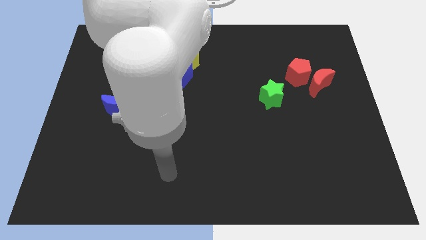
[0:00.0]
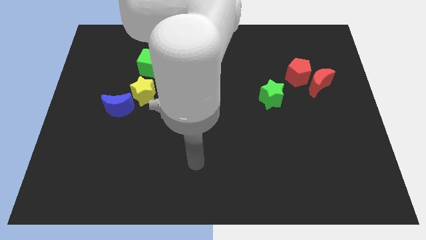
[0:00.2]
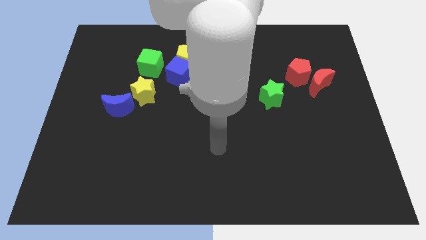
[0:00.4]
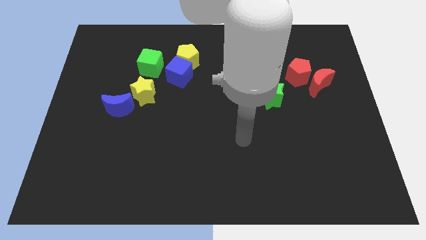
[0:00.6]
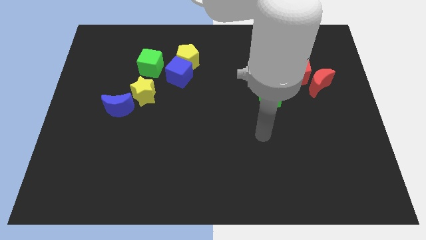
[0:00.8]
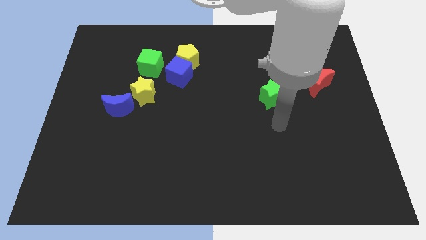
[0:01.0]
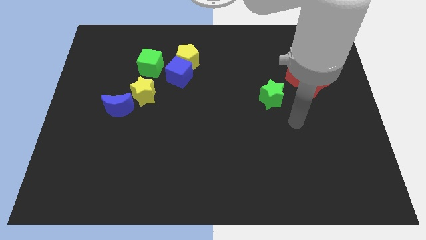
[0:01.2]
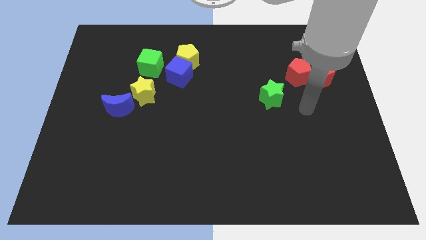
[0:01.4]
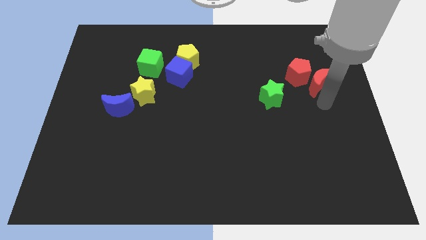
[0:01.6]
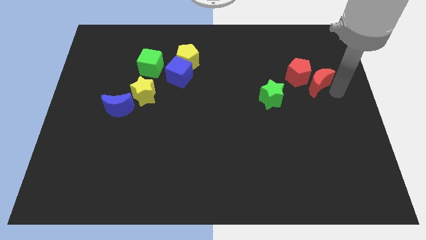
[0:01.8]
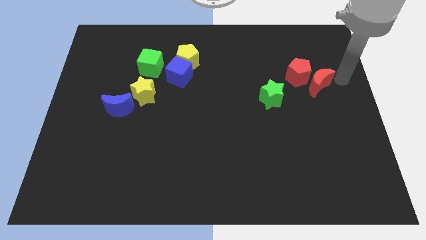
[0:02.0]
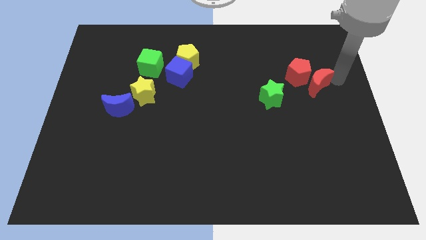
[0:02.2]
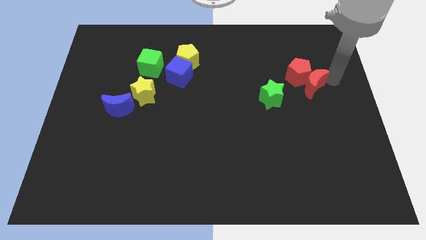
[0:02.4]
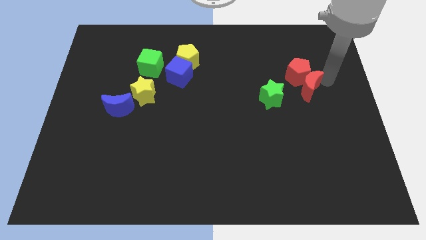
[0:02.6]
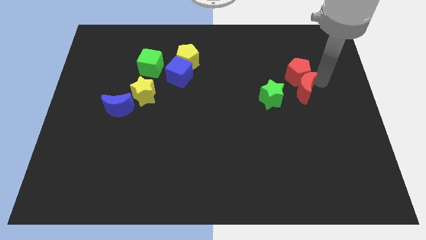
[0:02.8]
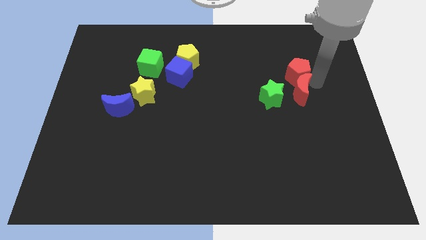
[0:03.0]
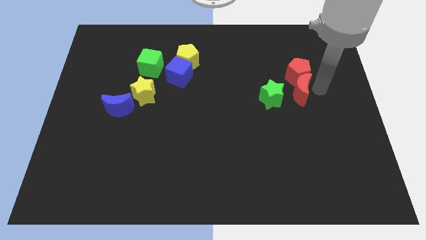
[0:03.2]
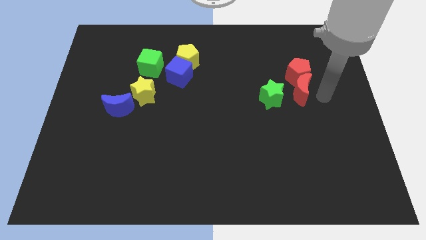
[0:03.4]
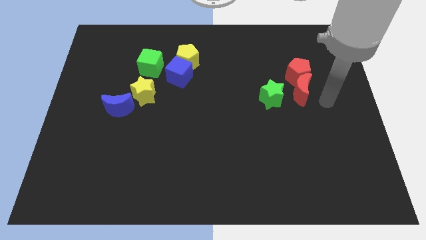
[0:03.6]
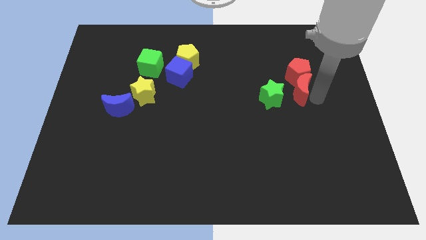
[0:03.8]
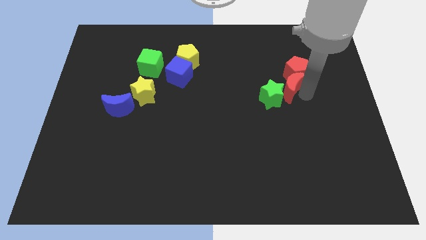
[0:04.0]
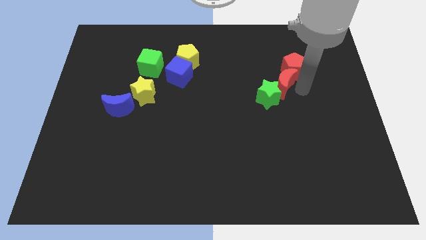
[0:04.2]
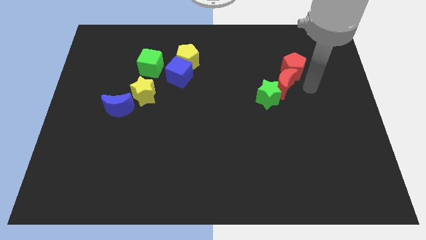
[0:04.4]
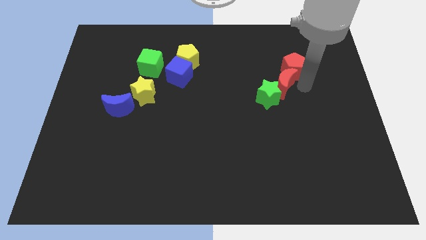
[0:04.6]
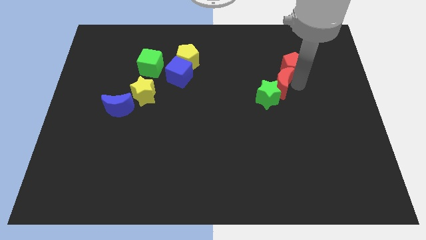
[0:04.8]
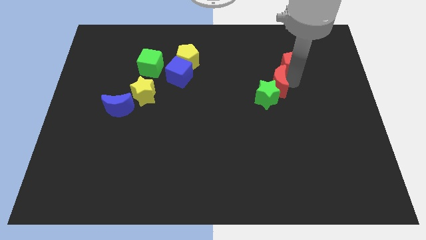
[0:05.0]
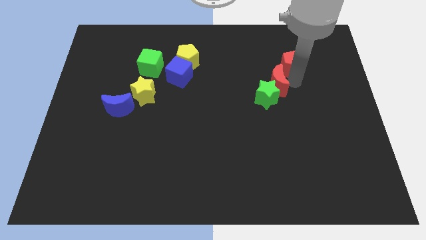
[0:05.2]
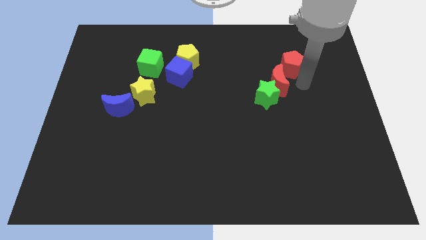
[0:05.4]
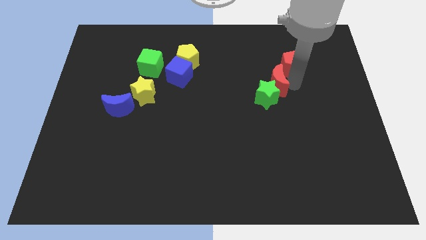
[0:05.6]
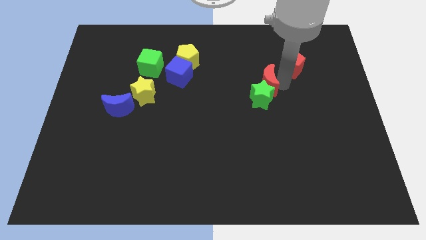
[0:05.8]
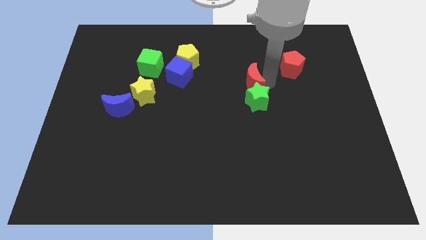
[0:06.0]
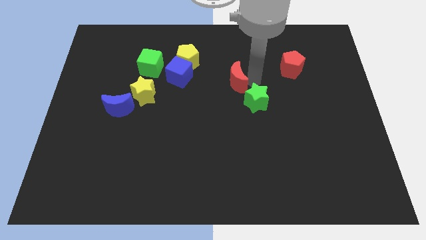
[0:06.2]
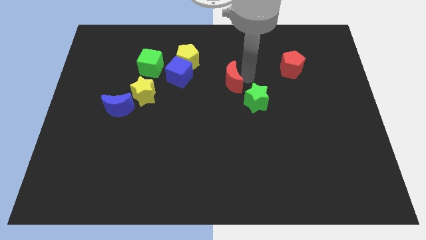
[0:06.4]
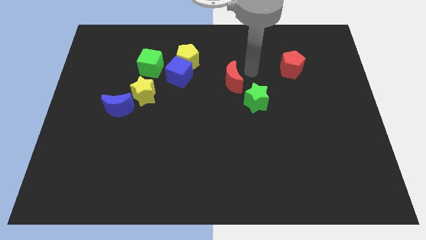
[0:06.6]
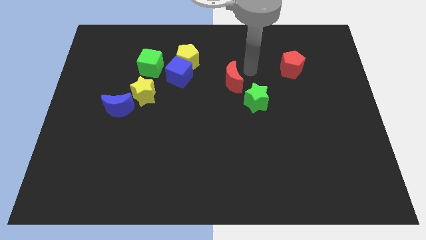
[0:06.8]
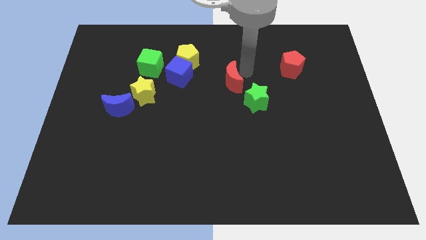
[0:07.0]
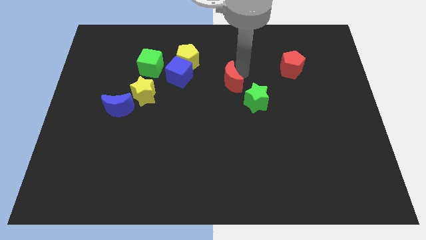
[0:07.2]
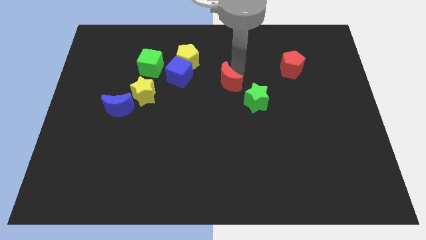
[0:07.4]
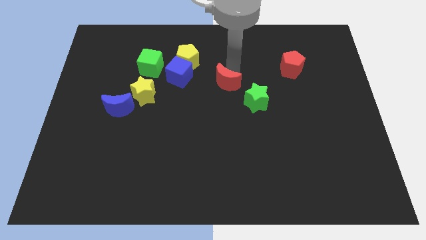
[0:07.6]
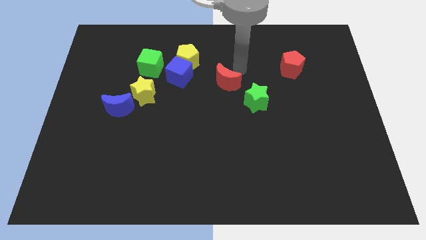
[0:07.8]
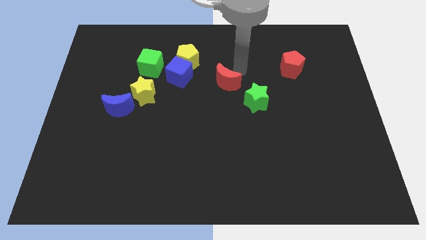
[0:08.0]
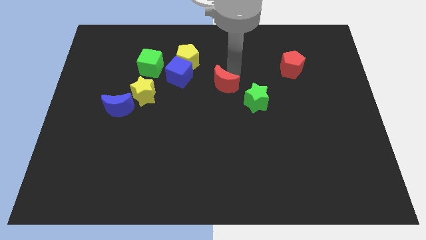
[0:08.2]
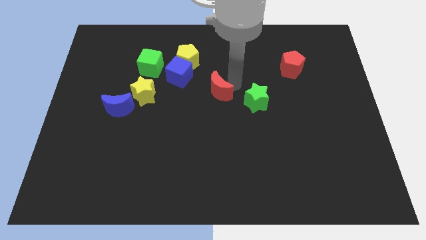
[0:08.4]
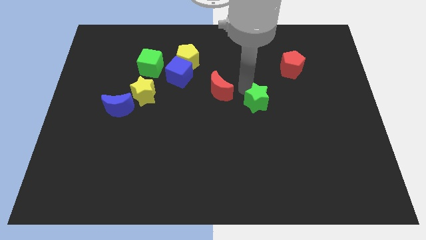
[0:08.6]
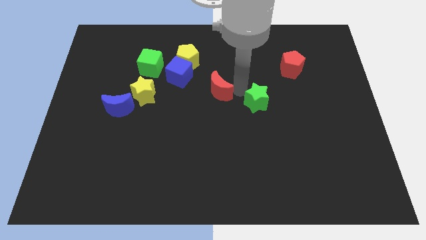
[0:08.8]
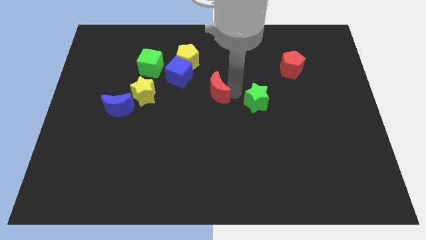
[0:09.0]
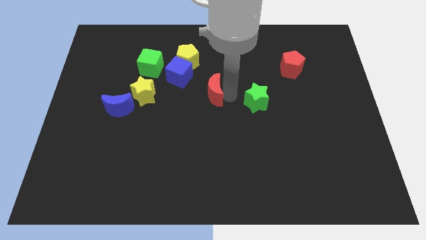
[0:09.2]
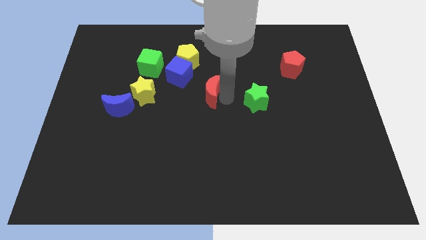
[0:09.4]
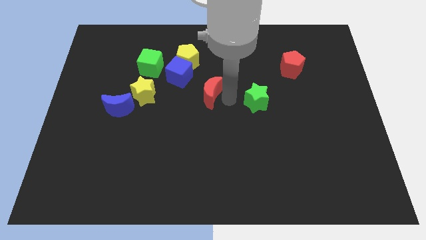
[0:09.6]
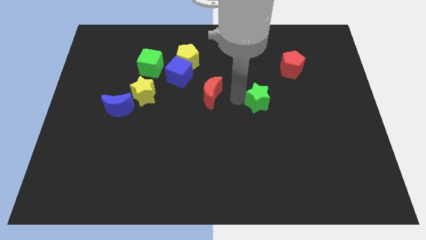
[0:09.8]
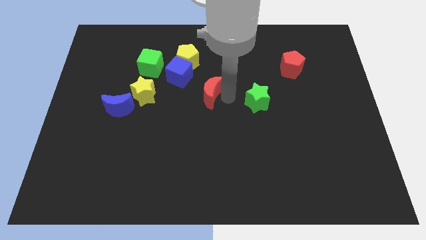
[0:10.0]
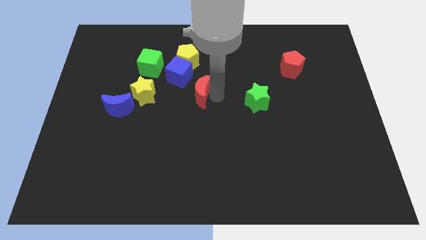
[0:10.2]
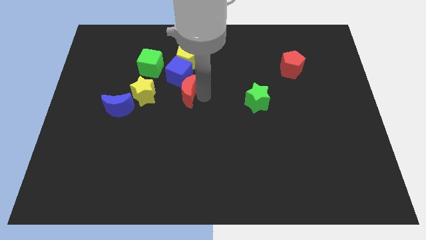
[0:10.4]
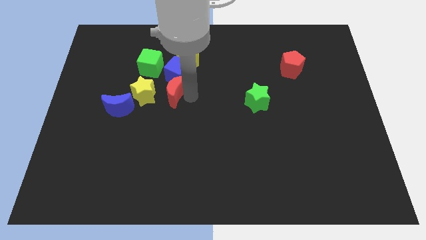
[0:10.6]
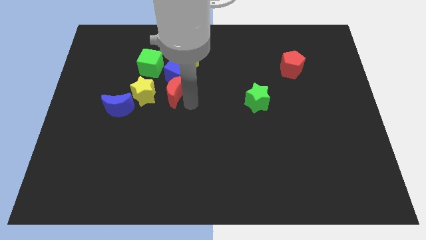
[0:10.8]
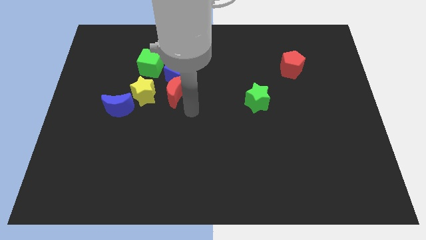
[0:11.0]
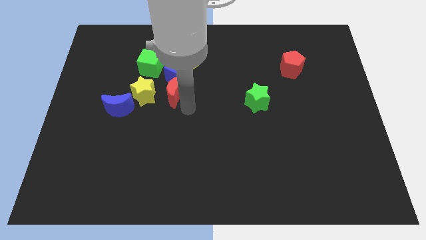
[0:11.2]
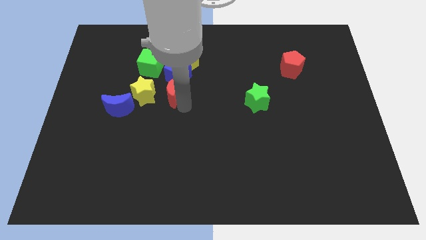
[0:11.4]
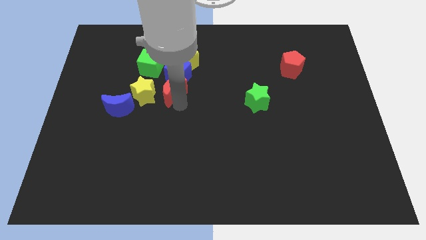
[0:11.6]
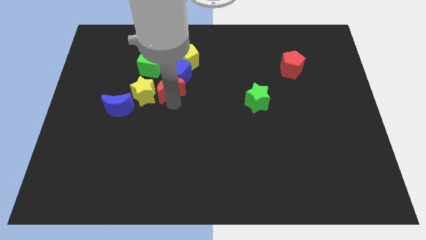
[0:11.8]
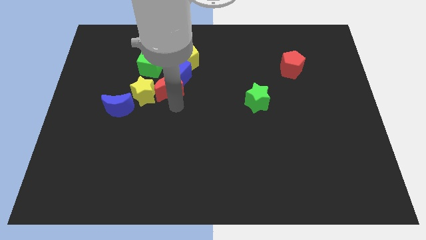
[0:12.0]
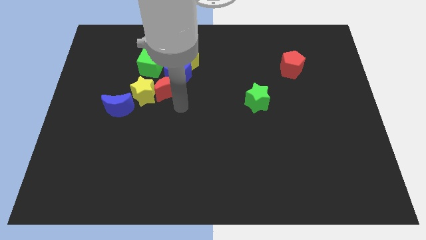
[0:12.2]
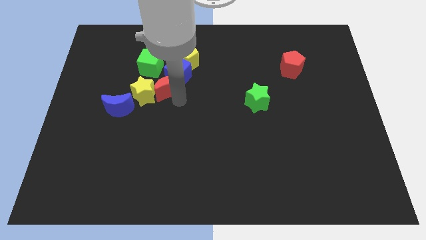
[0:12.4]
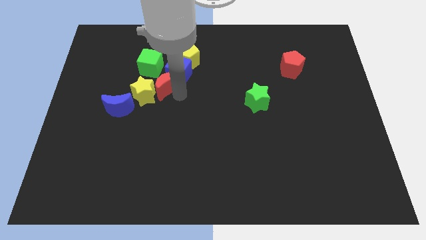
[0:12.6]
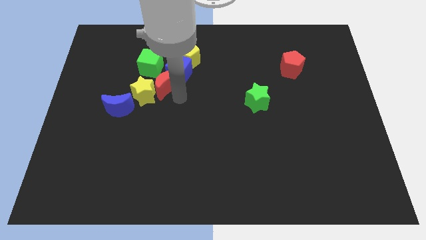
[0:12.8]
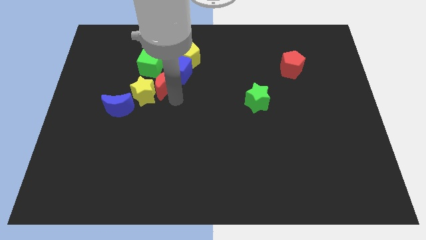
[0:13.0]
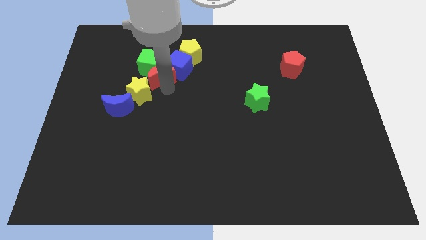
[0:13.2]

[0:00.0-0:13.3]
slide the red moon to the green cube

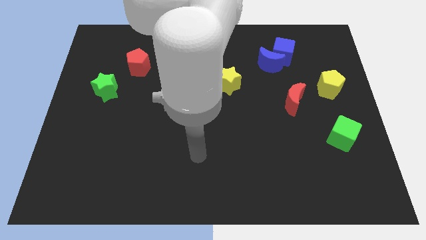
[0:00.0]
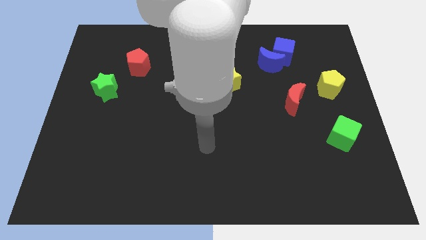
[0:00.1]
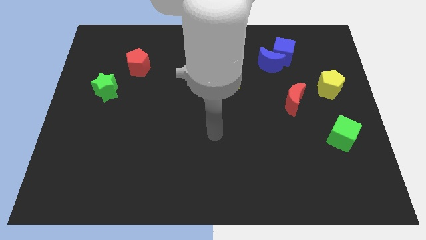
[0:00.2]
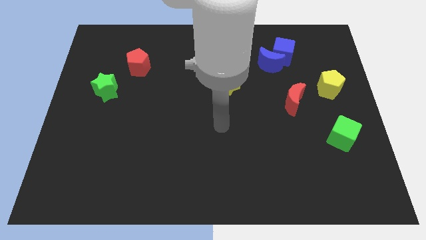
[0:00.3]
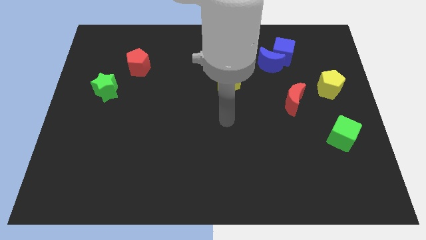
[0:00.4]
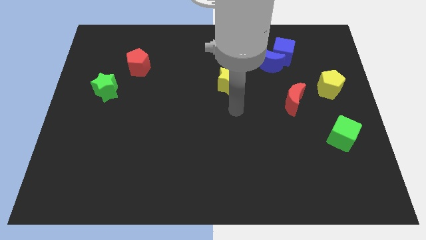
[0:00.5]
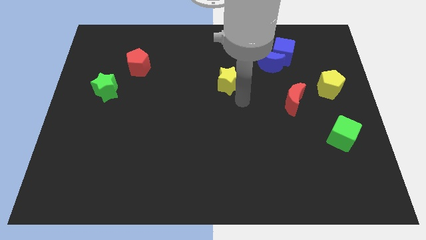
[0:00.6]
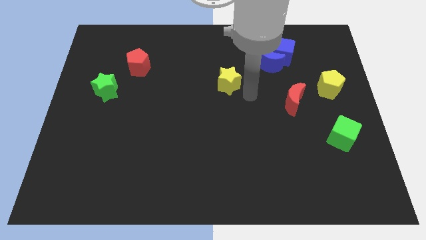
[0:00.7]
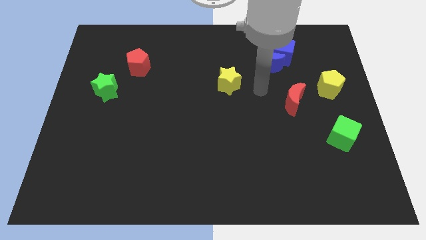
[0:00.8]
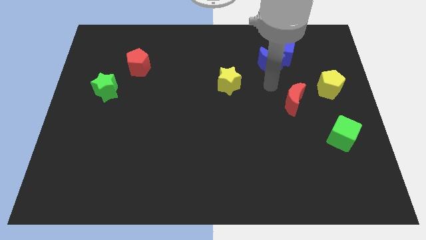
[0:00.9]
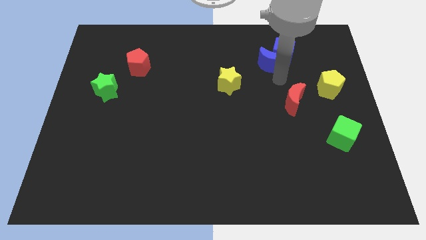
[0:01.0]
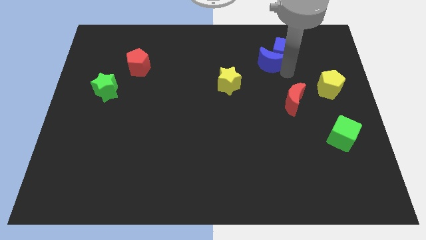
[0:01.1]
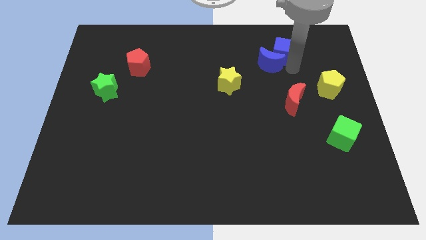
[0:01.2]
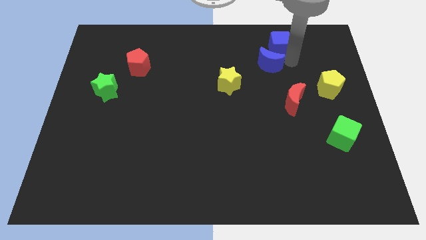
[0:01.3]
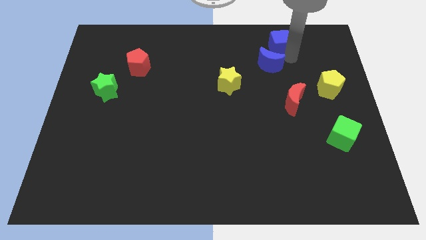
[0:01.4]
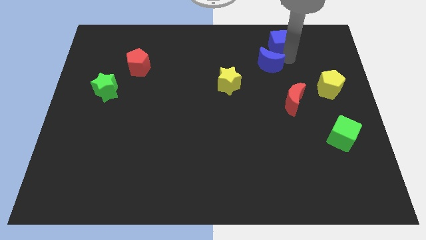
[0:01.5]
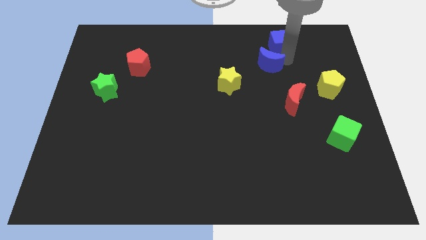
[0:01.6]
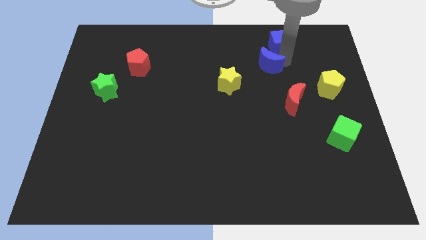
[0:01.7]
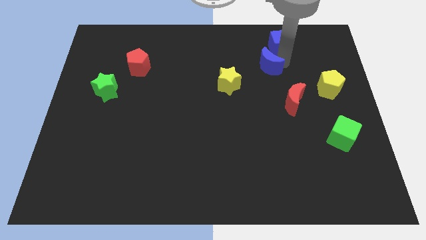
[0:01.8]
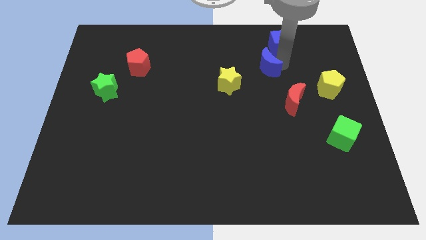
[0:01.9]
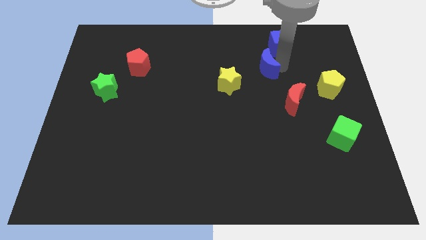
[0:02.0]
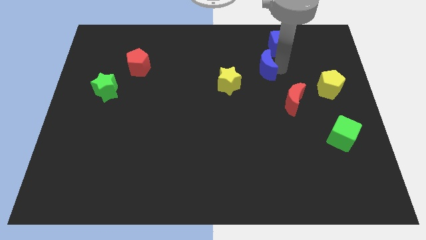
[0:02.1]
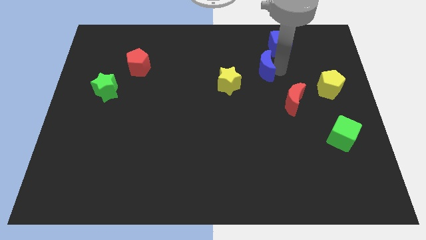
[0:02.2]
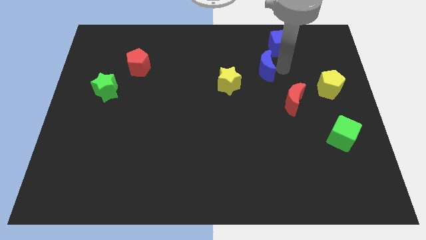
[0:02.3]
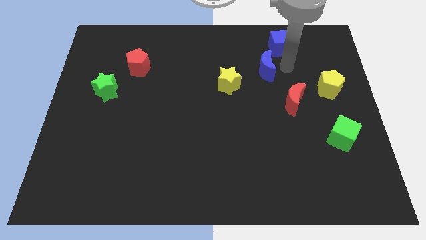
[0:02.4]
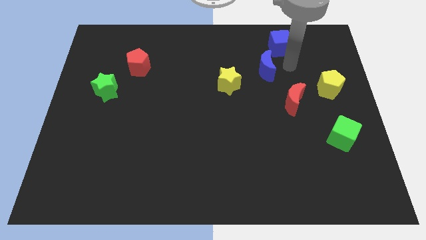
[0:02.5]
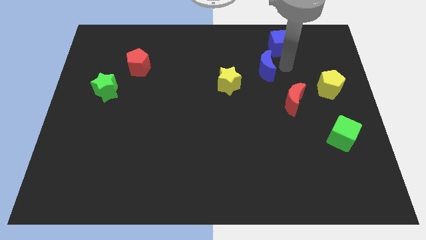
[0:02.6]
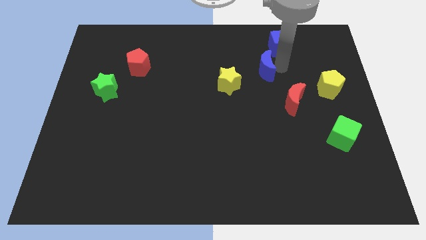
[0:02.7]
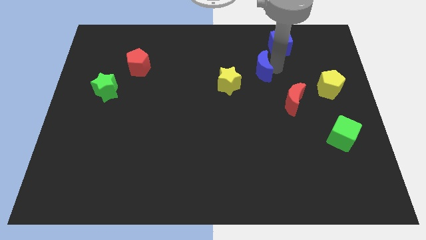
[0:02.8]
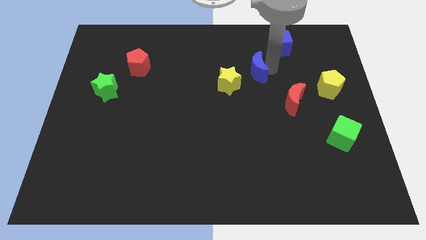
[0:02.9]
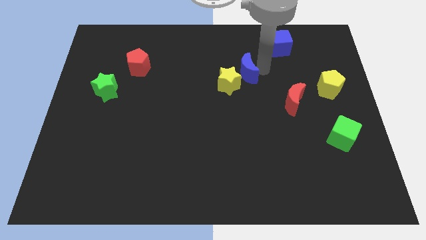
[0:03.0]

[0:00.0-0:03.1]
slide the blue moon to the yellow star
